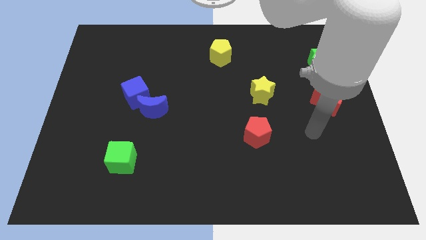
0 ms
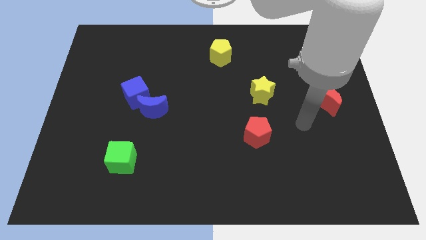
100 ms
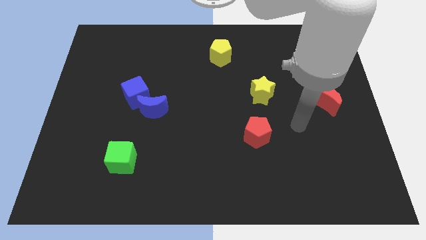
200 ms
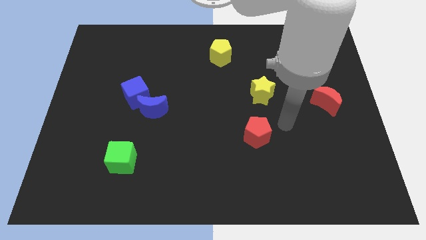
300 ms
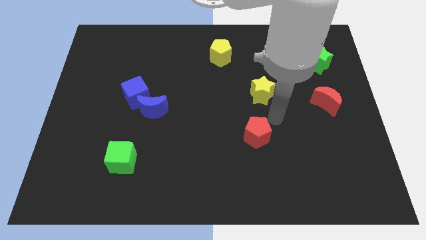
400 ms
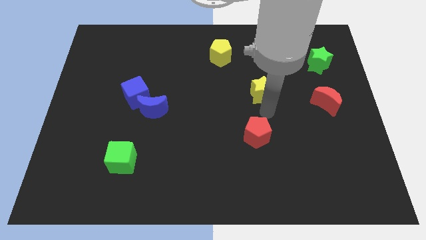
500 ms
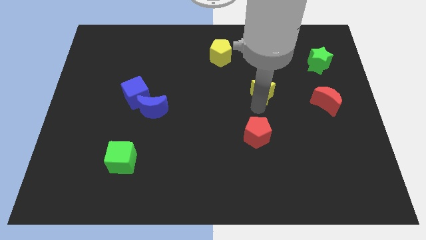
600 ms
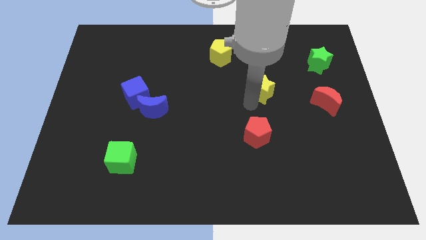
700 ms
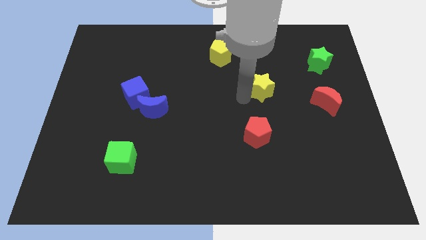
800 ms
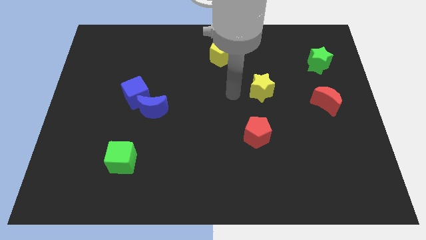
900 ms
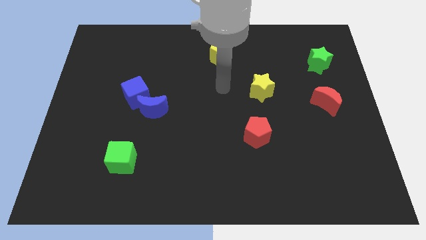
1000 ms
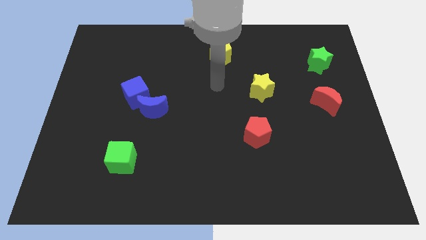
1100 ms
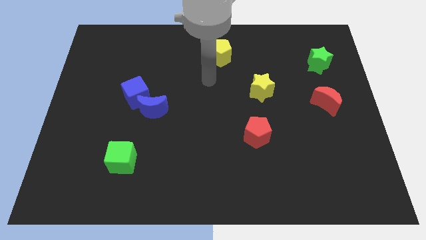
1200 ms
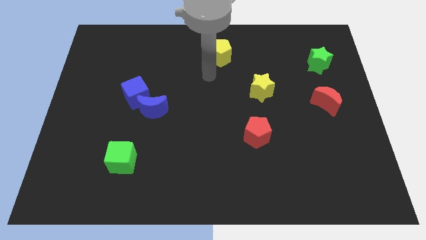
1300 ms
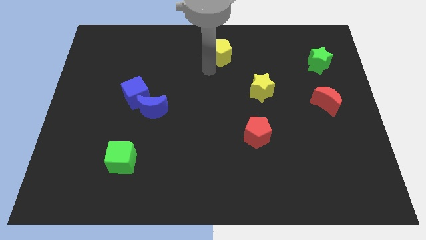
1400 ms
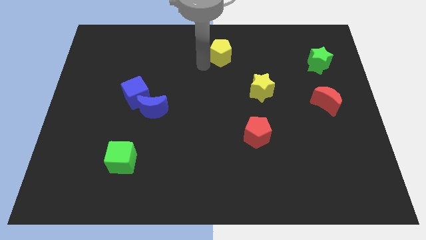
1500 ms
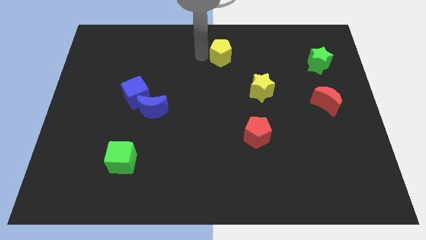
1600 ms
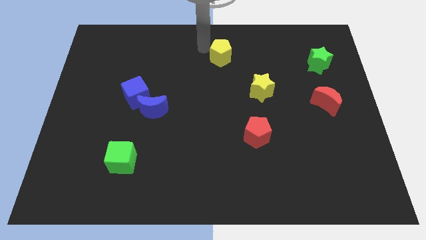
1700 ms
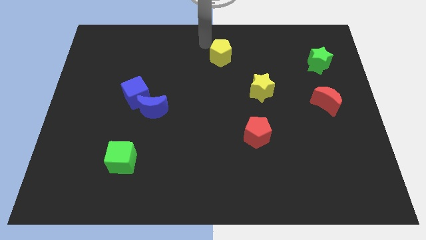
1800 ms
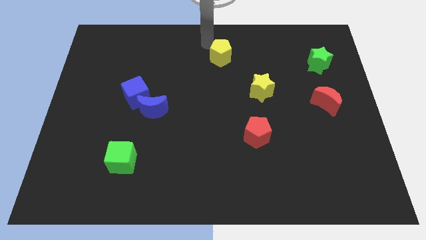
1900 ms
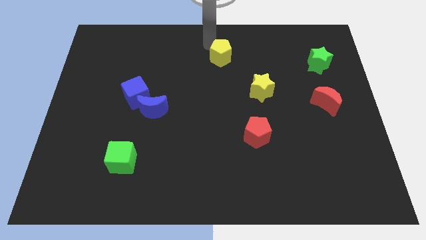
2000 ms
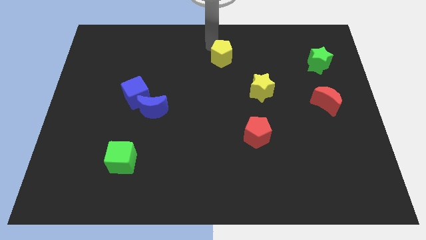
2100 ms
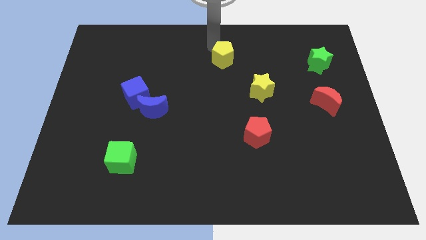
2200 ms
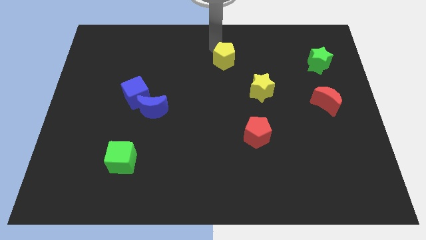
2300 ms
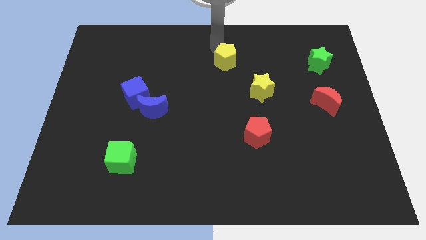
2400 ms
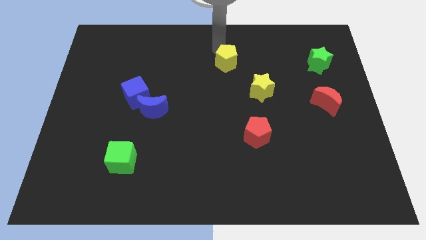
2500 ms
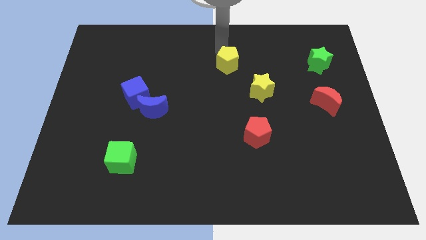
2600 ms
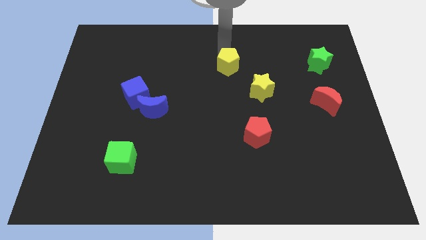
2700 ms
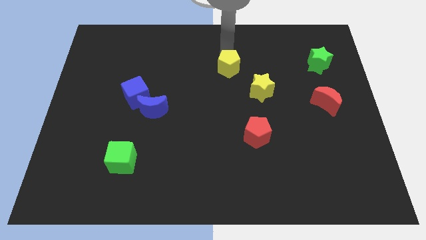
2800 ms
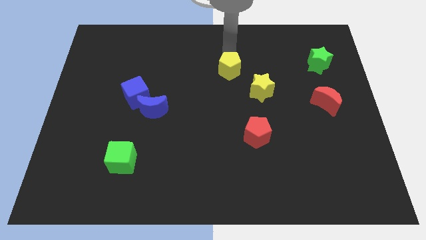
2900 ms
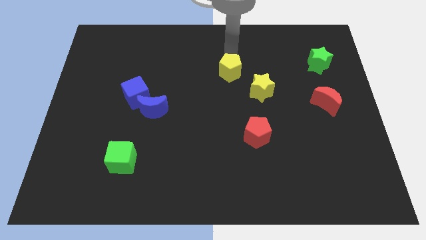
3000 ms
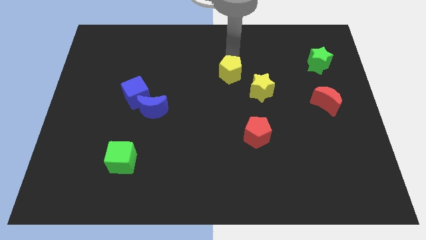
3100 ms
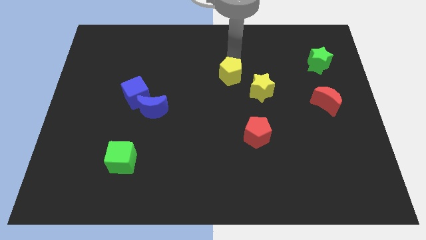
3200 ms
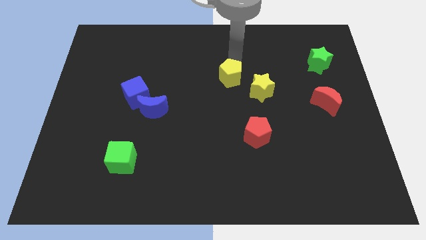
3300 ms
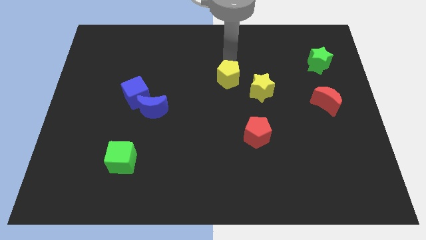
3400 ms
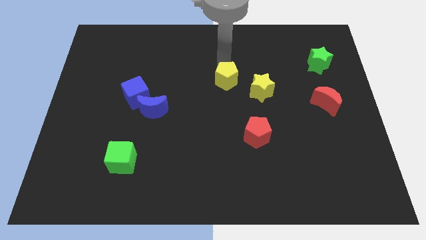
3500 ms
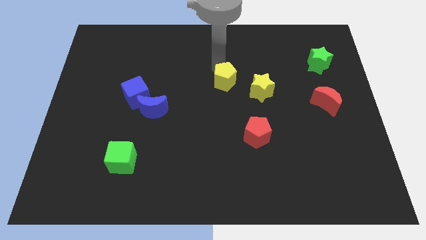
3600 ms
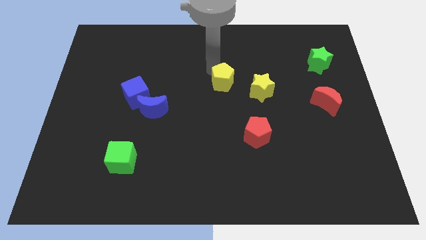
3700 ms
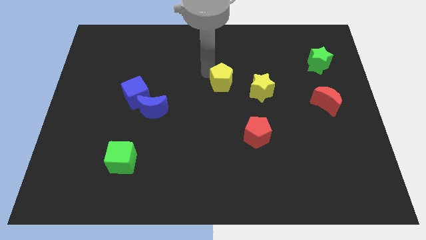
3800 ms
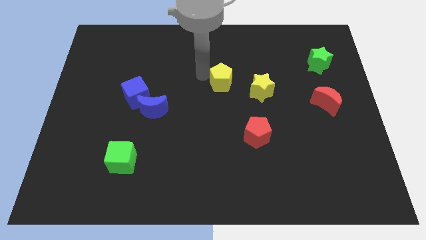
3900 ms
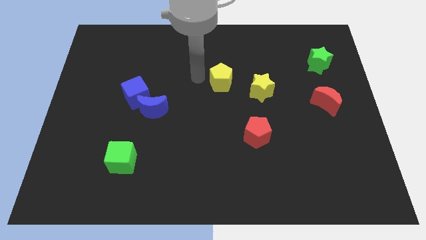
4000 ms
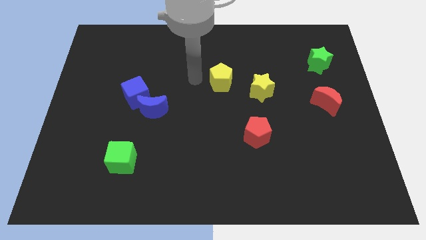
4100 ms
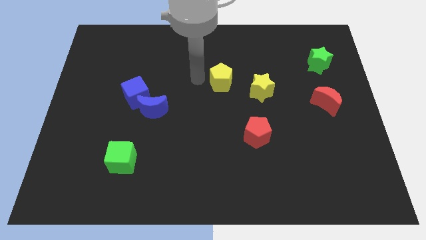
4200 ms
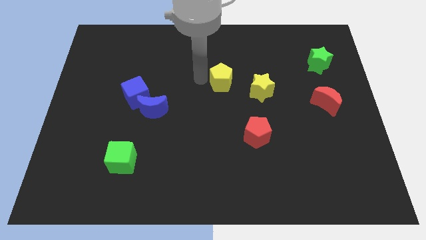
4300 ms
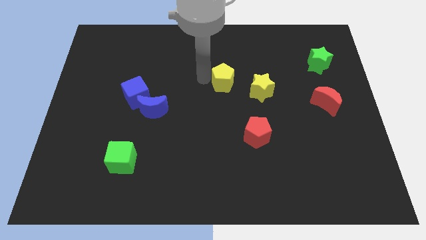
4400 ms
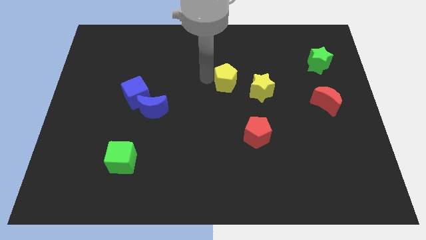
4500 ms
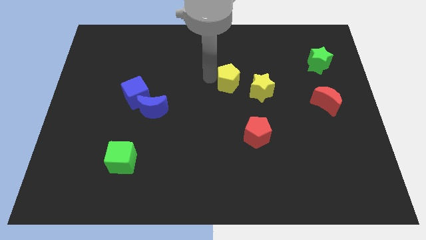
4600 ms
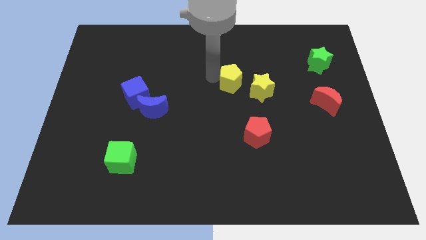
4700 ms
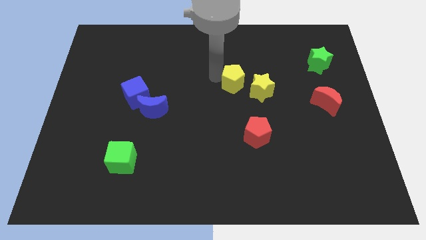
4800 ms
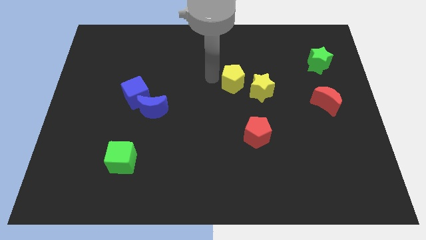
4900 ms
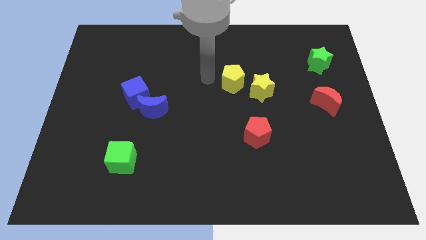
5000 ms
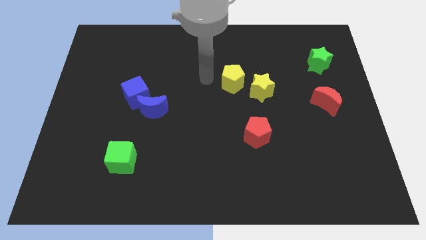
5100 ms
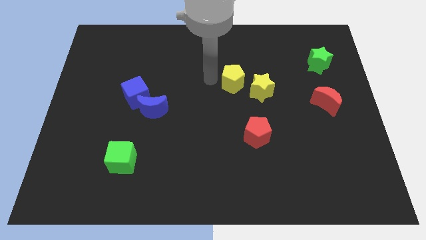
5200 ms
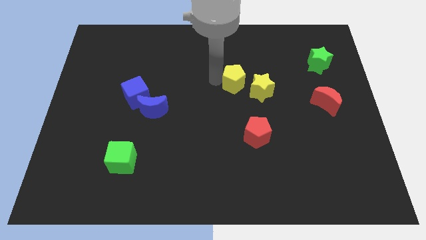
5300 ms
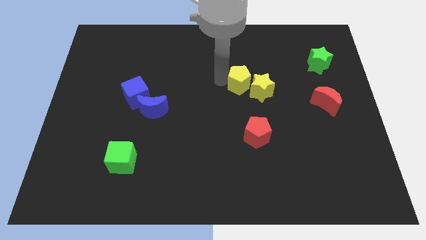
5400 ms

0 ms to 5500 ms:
move the yellow pentagon towards the yellow star

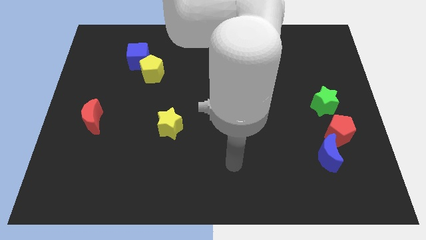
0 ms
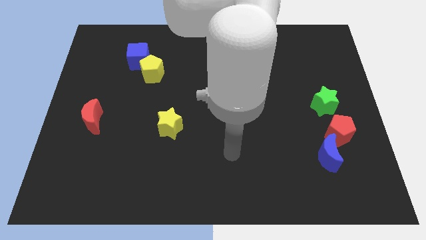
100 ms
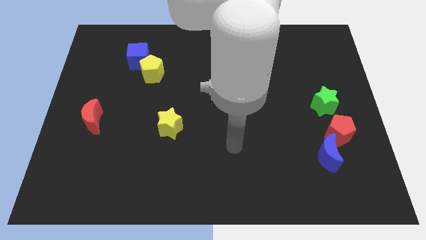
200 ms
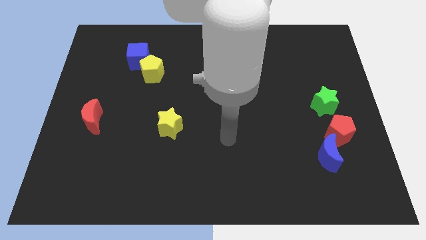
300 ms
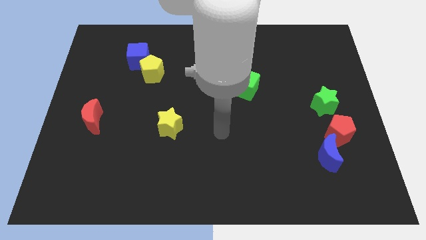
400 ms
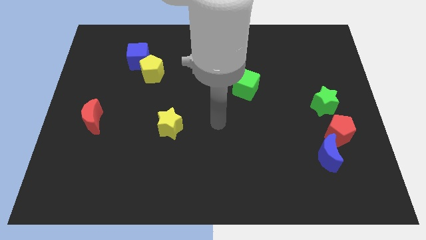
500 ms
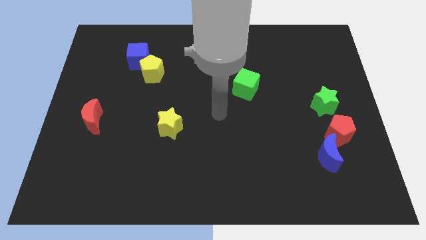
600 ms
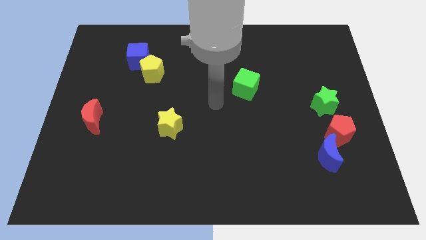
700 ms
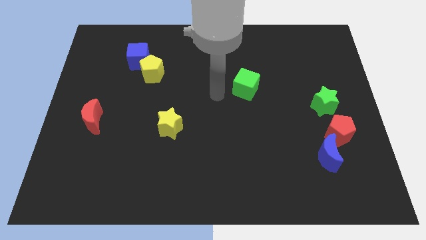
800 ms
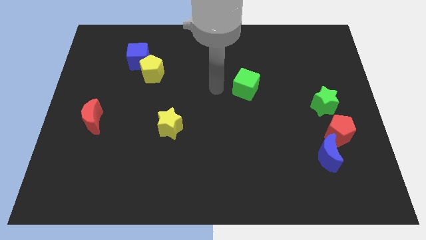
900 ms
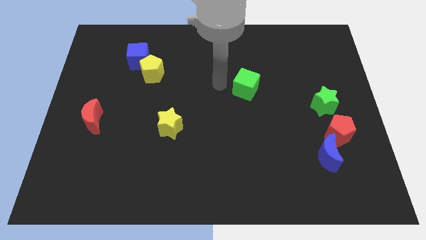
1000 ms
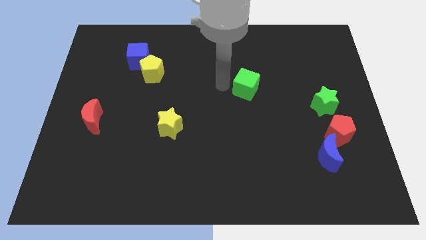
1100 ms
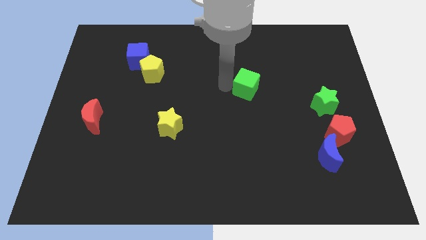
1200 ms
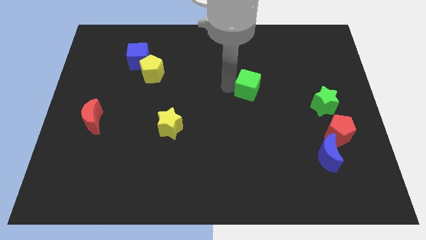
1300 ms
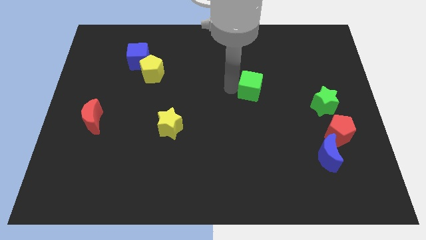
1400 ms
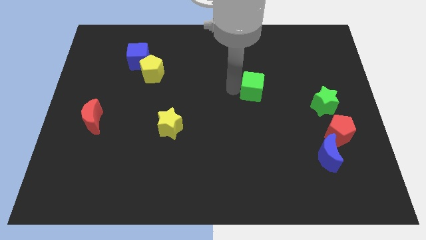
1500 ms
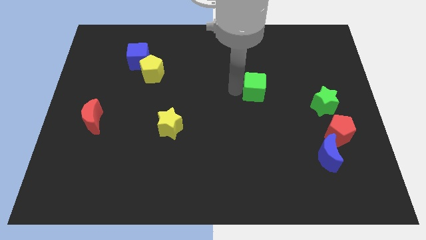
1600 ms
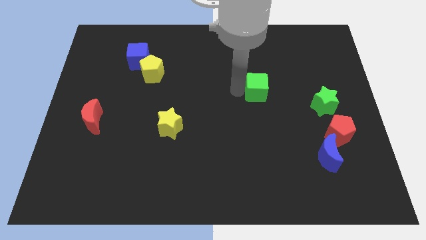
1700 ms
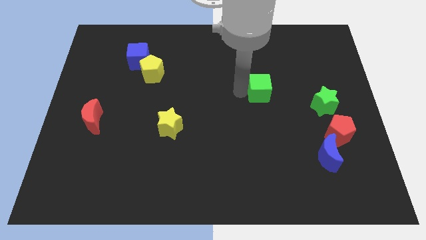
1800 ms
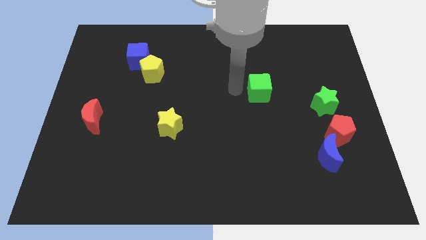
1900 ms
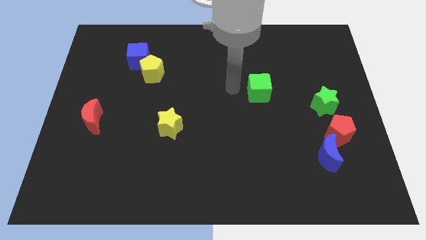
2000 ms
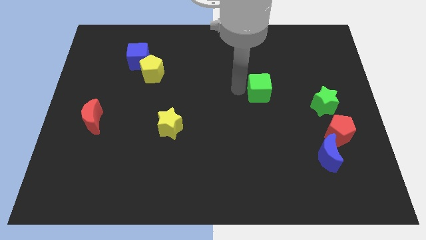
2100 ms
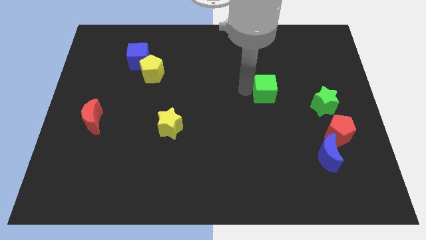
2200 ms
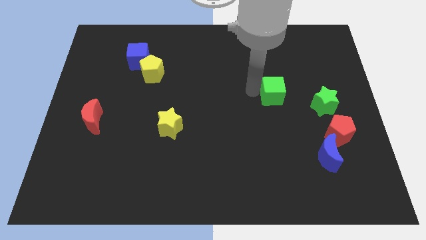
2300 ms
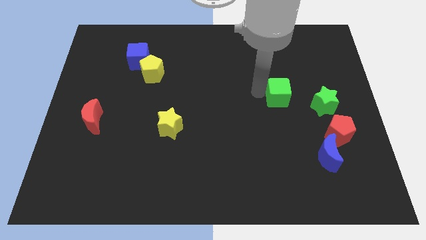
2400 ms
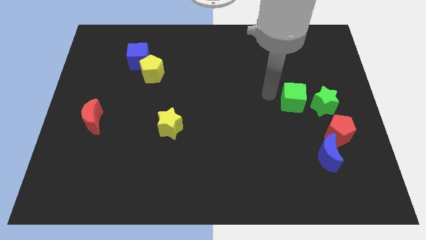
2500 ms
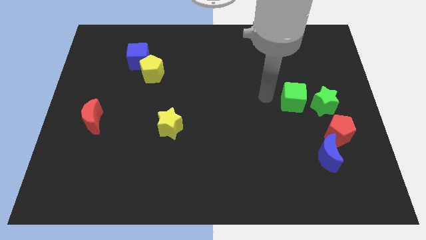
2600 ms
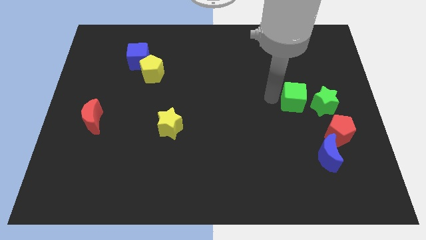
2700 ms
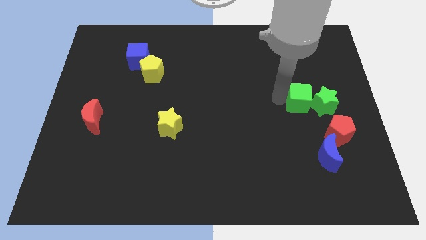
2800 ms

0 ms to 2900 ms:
put the green cube to the green star
